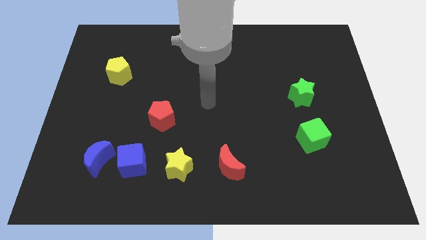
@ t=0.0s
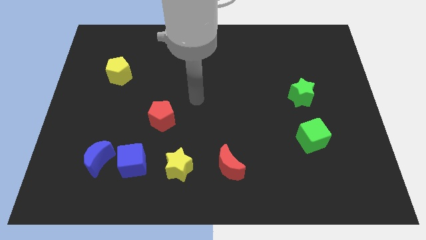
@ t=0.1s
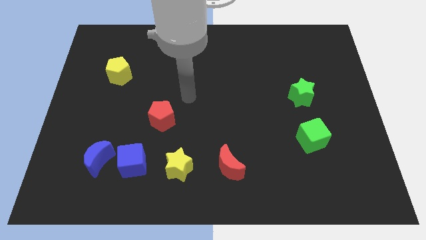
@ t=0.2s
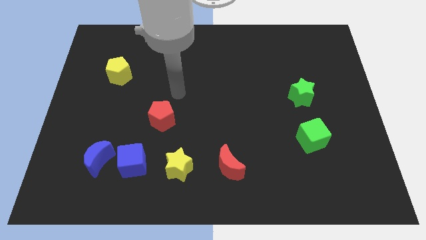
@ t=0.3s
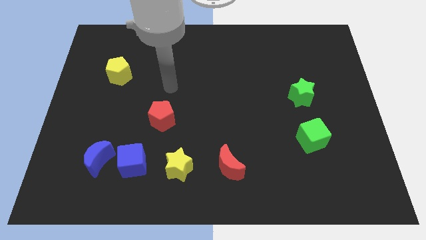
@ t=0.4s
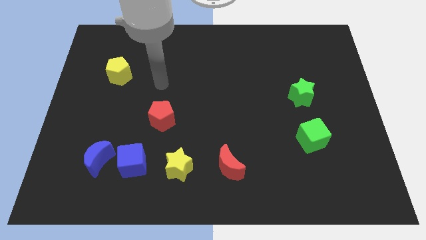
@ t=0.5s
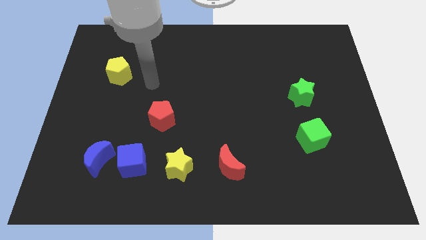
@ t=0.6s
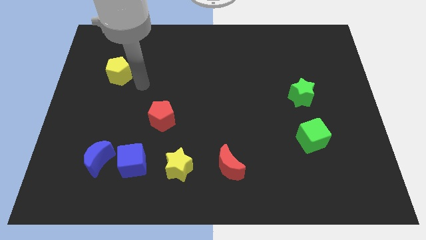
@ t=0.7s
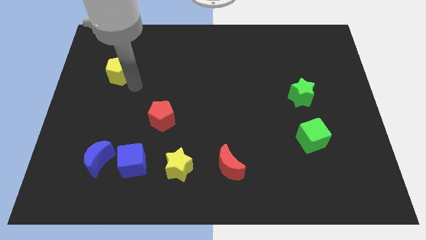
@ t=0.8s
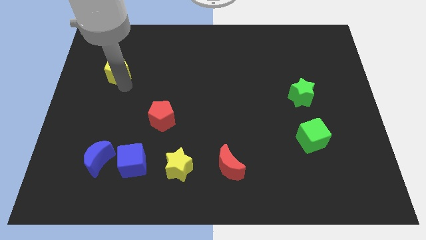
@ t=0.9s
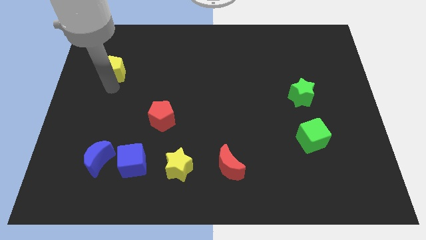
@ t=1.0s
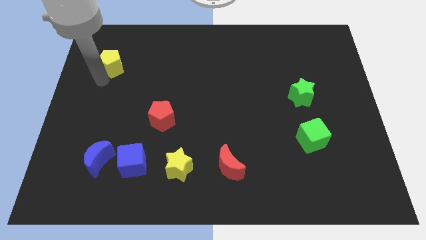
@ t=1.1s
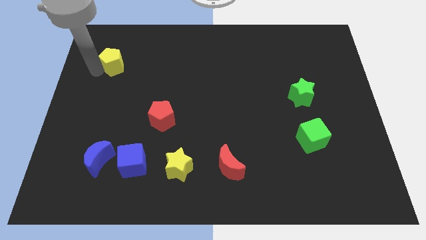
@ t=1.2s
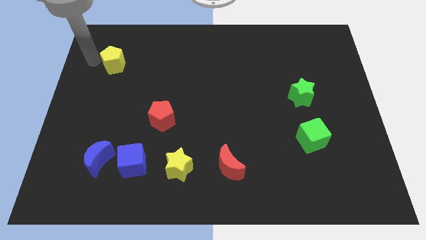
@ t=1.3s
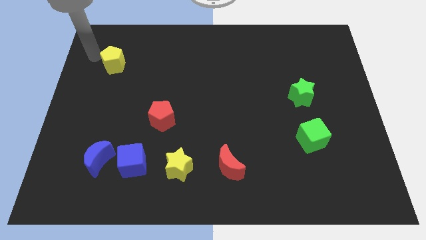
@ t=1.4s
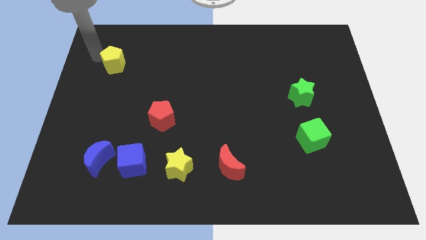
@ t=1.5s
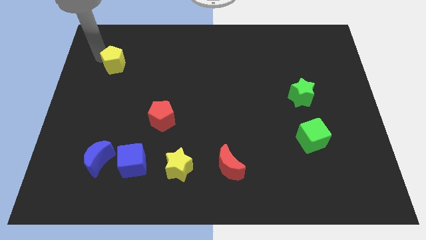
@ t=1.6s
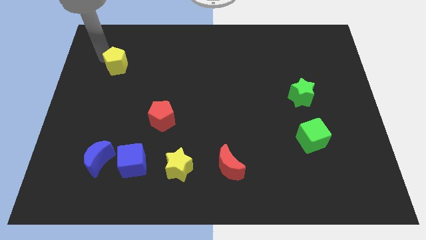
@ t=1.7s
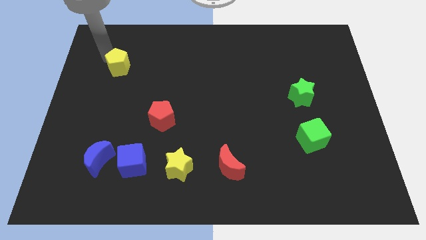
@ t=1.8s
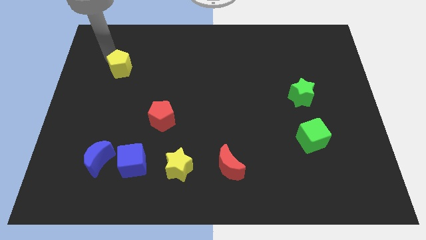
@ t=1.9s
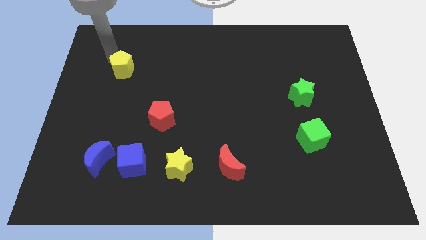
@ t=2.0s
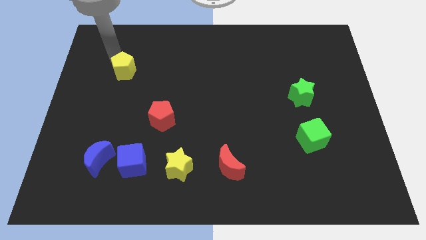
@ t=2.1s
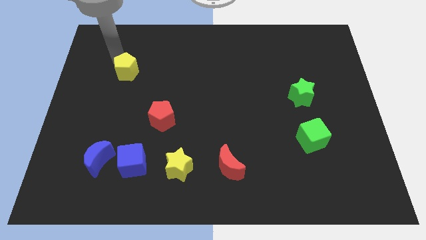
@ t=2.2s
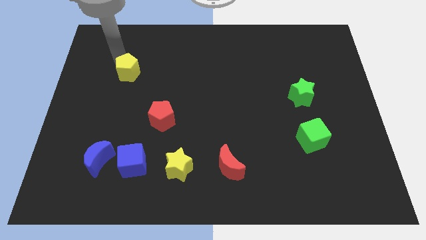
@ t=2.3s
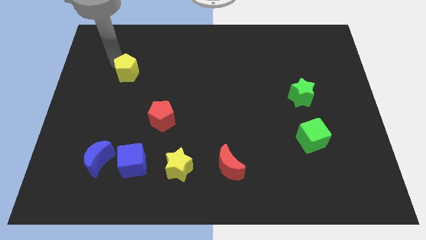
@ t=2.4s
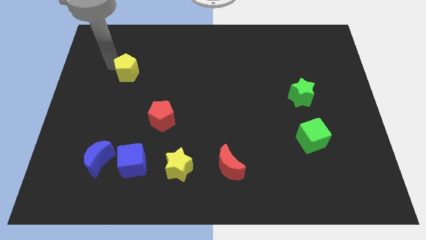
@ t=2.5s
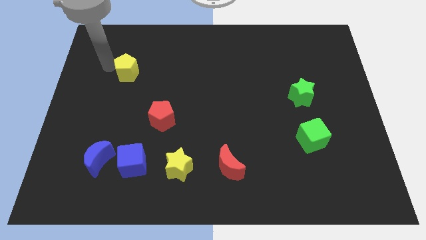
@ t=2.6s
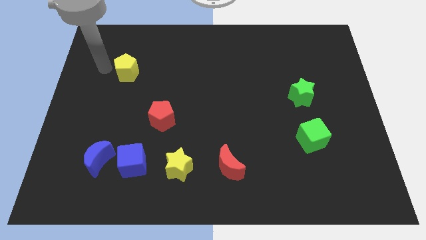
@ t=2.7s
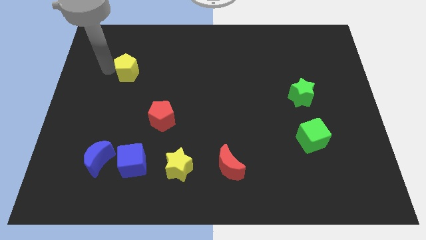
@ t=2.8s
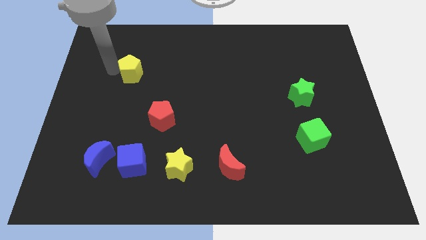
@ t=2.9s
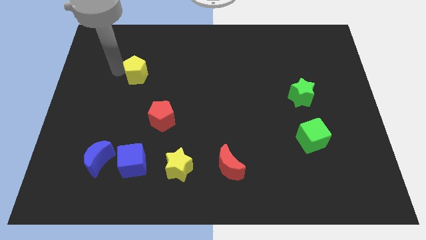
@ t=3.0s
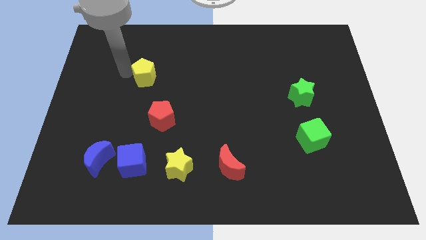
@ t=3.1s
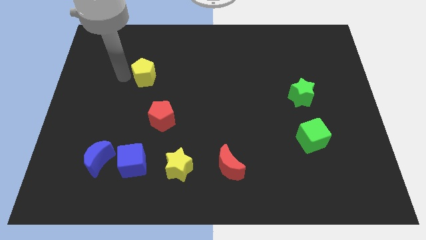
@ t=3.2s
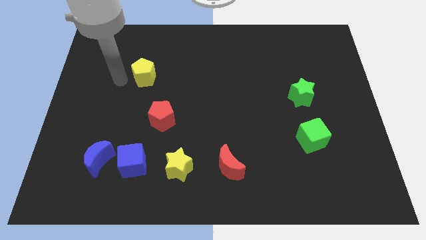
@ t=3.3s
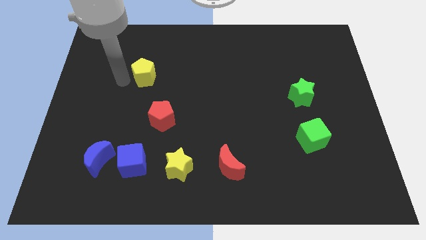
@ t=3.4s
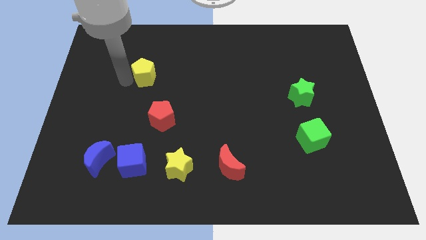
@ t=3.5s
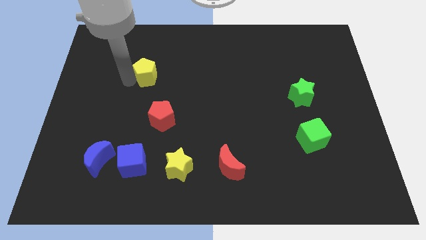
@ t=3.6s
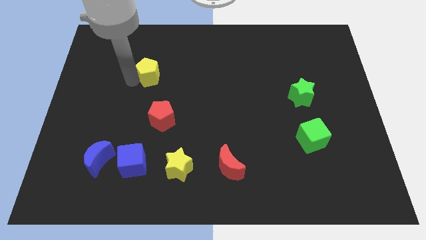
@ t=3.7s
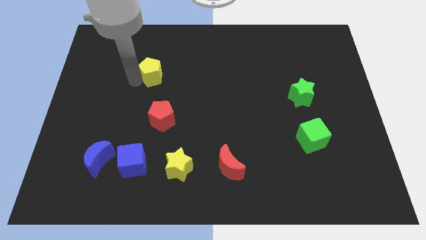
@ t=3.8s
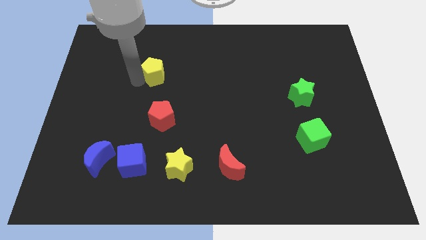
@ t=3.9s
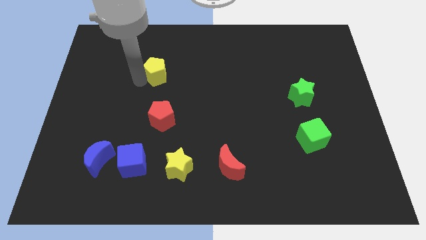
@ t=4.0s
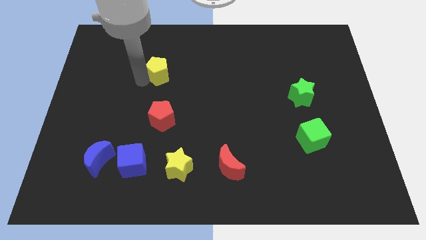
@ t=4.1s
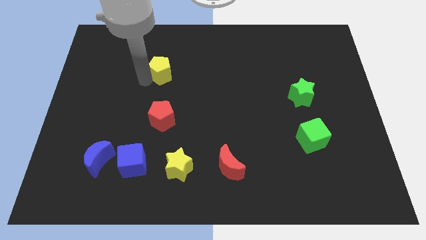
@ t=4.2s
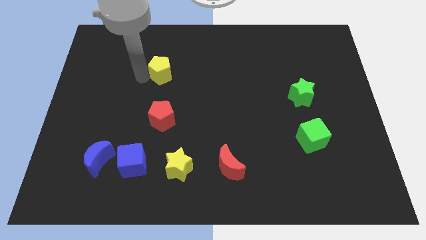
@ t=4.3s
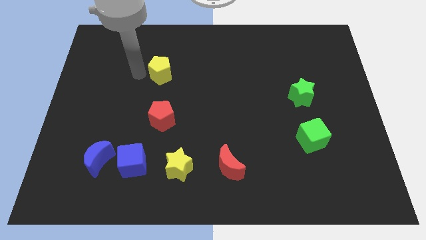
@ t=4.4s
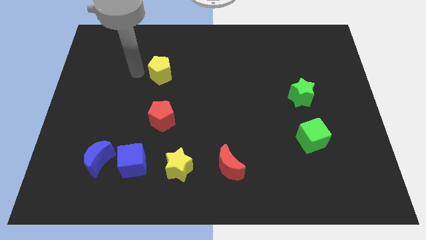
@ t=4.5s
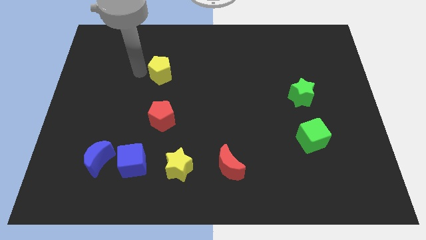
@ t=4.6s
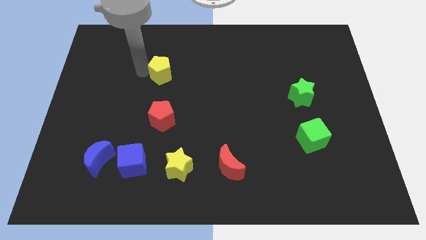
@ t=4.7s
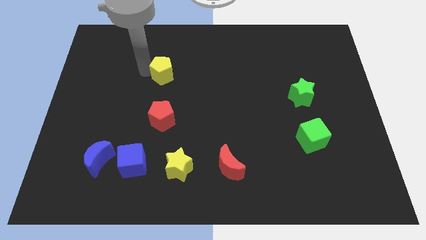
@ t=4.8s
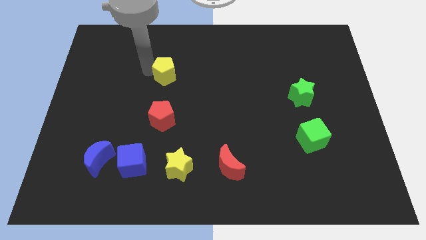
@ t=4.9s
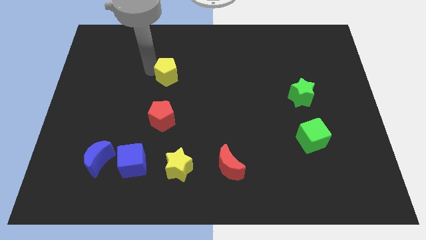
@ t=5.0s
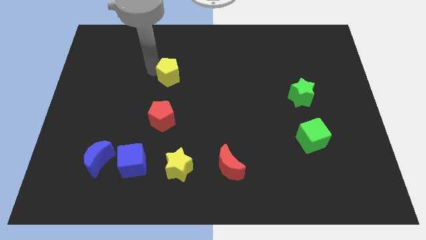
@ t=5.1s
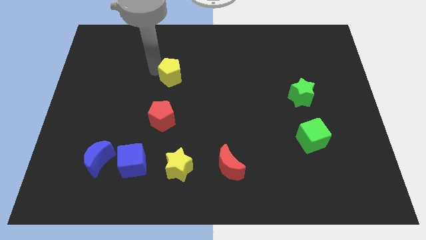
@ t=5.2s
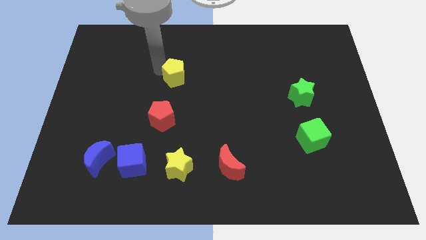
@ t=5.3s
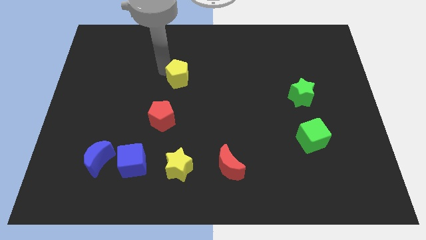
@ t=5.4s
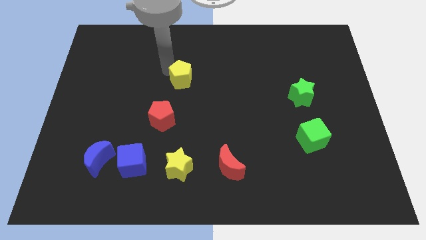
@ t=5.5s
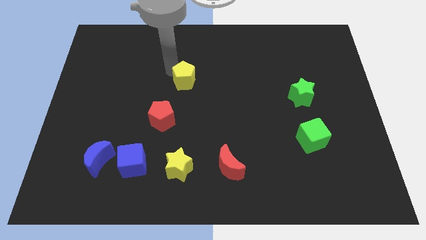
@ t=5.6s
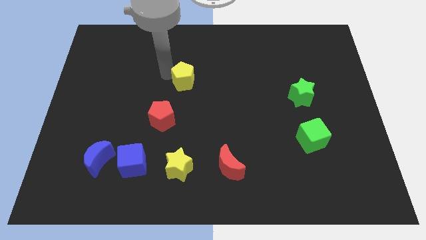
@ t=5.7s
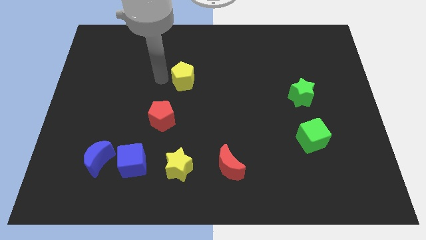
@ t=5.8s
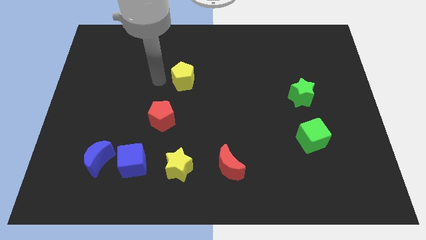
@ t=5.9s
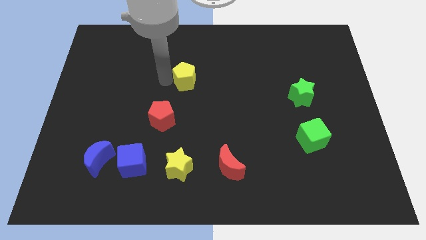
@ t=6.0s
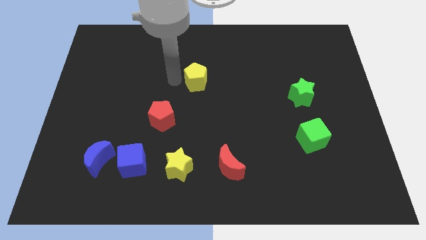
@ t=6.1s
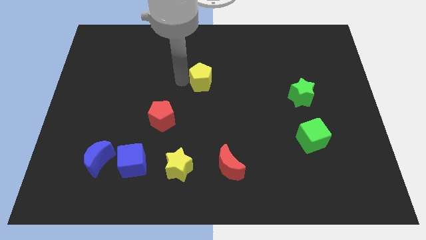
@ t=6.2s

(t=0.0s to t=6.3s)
push the yellow pentagon to the right

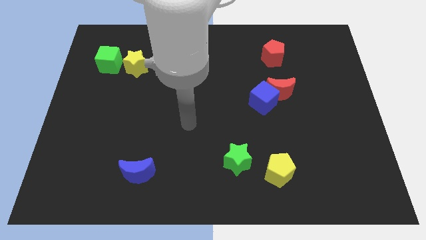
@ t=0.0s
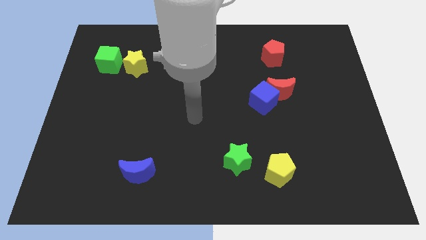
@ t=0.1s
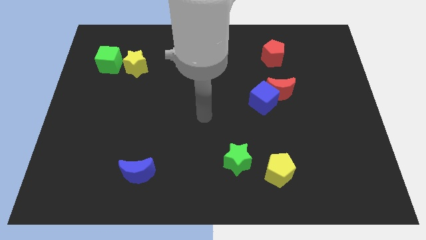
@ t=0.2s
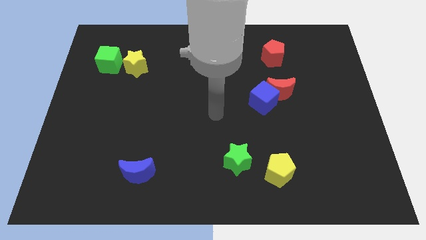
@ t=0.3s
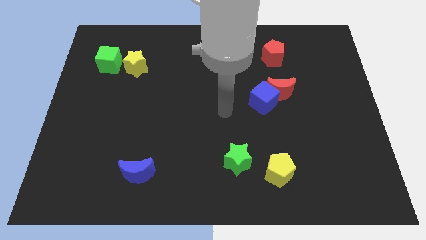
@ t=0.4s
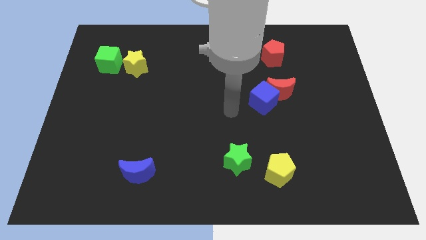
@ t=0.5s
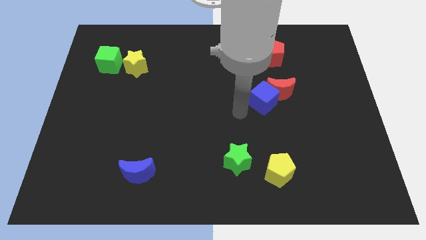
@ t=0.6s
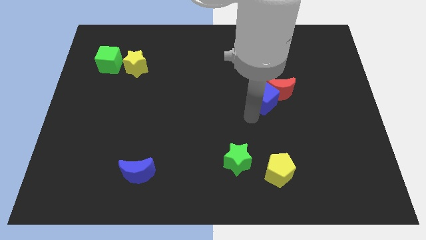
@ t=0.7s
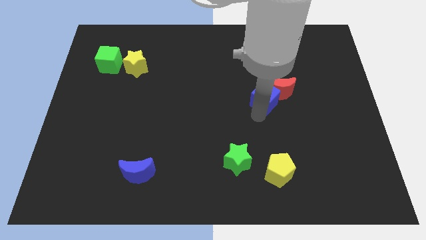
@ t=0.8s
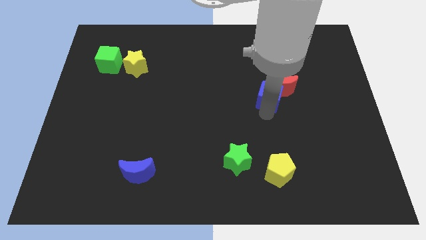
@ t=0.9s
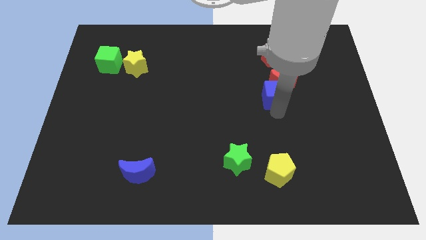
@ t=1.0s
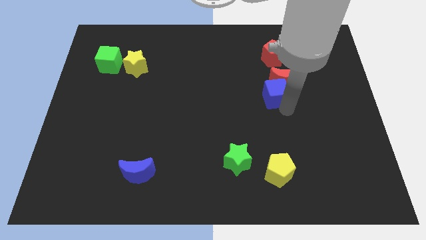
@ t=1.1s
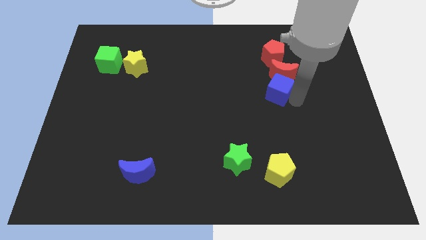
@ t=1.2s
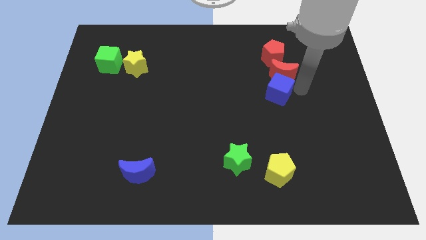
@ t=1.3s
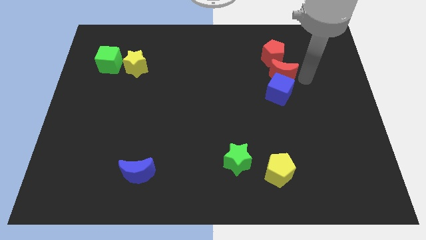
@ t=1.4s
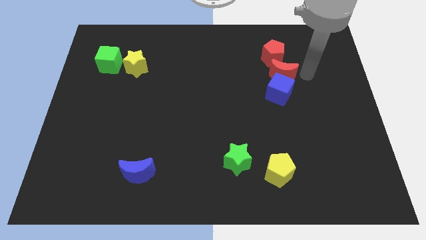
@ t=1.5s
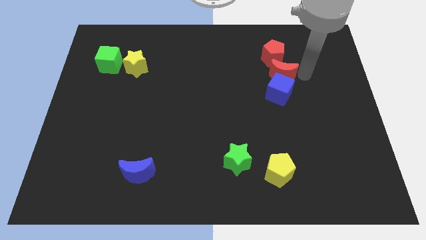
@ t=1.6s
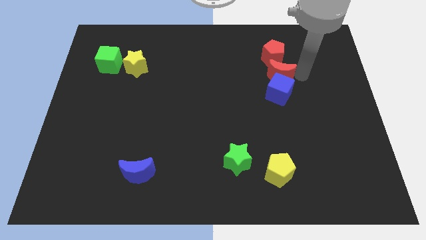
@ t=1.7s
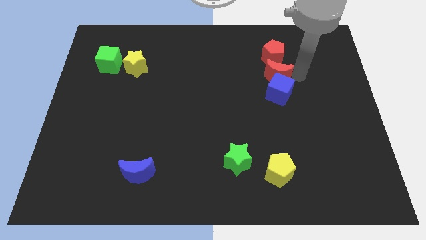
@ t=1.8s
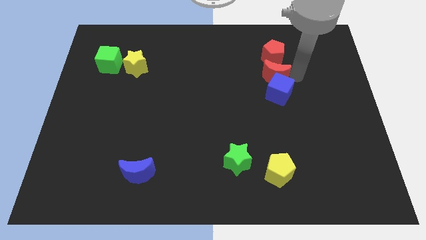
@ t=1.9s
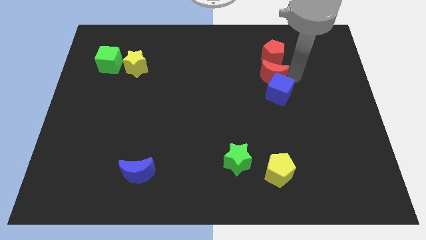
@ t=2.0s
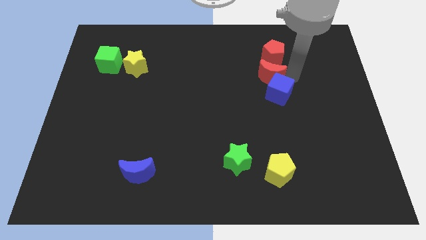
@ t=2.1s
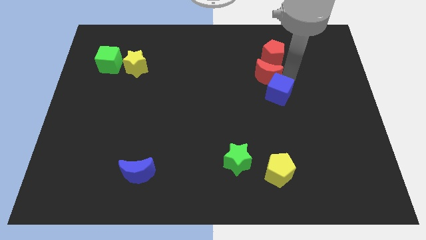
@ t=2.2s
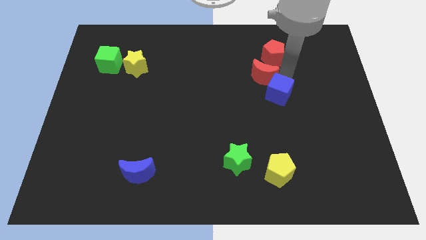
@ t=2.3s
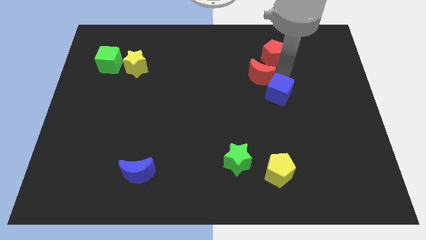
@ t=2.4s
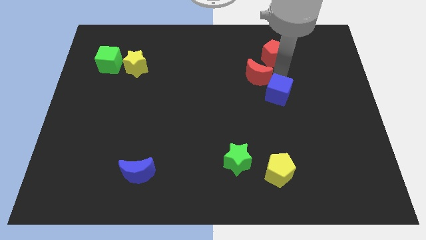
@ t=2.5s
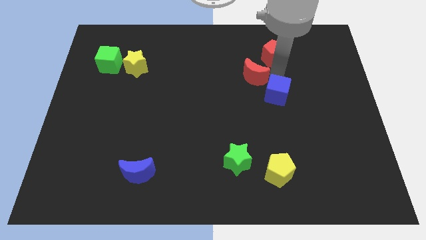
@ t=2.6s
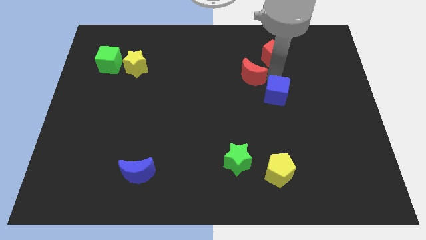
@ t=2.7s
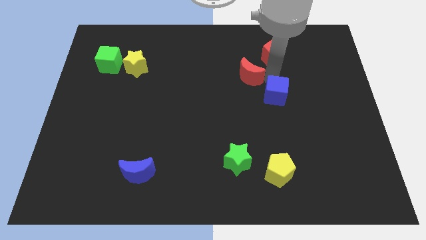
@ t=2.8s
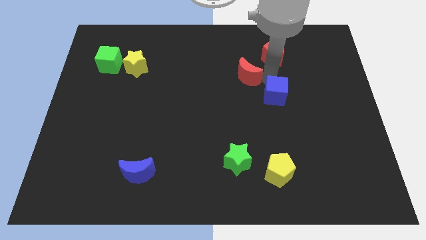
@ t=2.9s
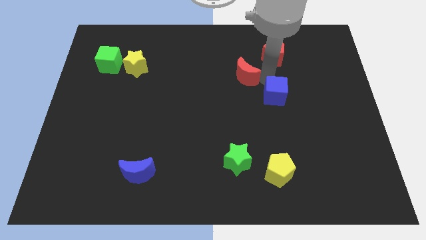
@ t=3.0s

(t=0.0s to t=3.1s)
slightly move the red moon left
